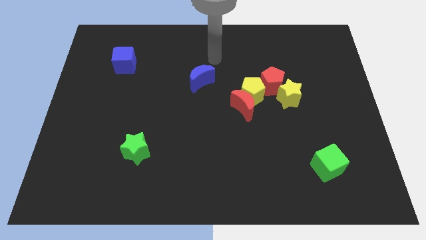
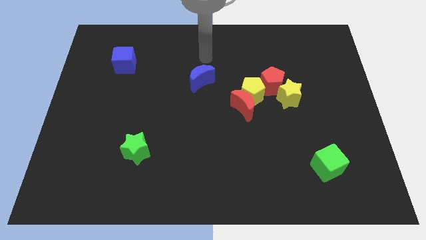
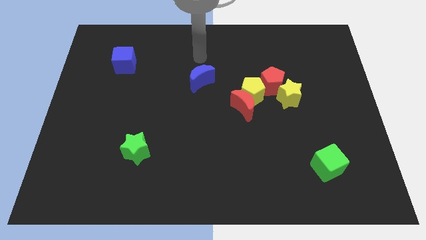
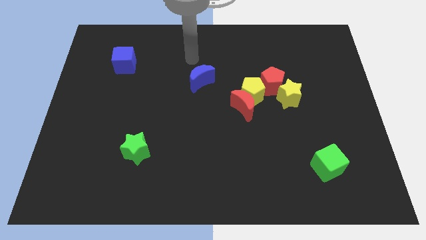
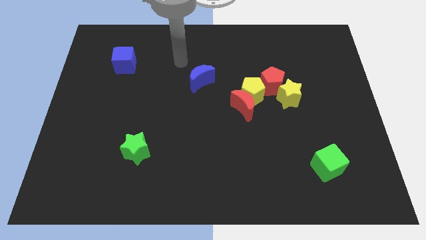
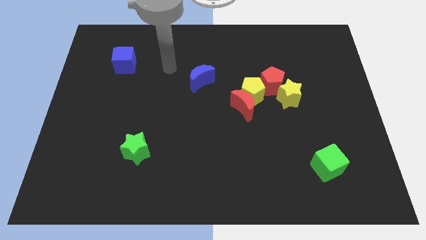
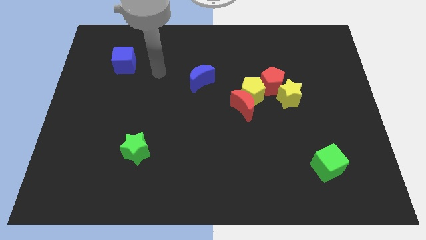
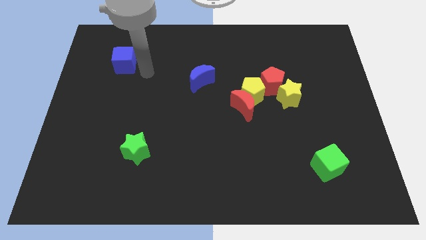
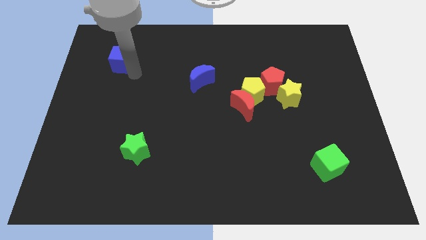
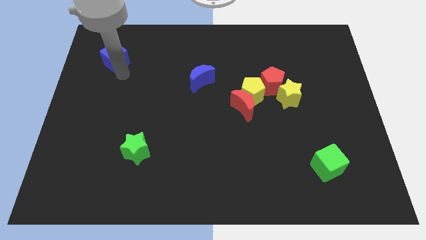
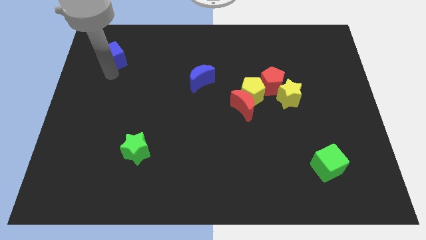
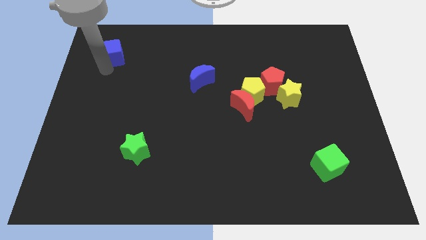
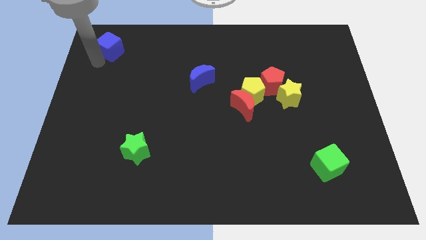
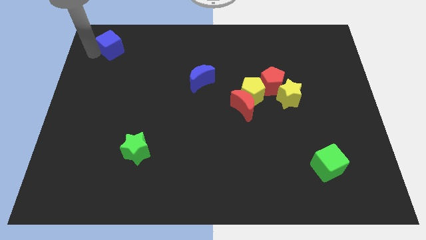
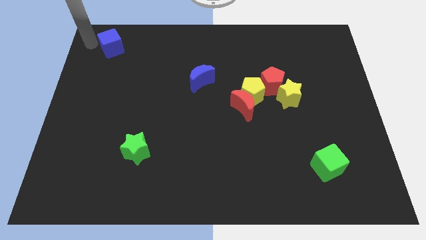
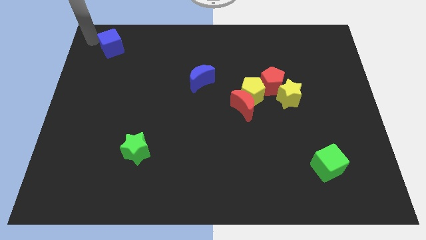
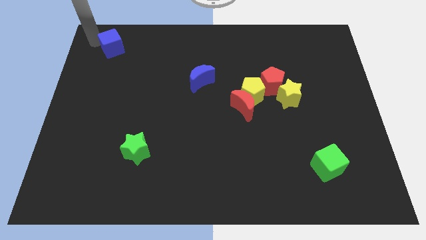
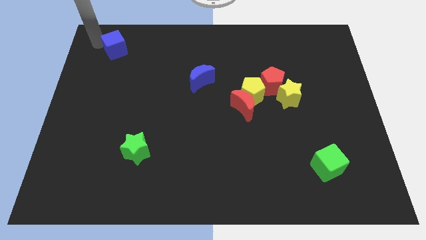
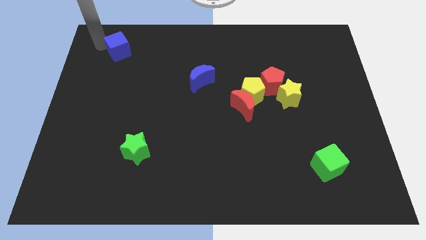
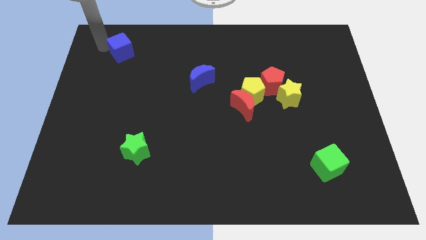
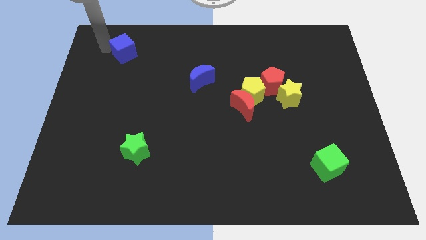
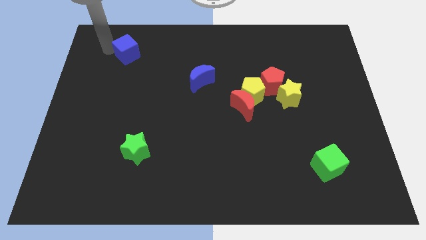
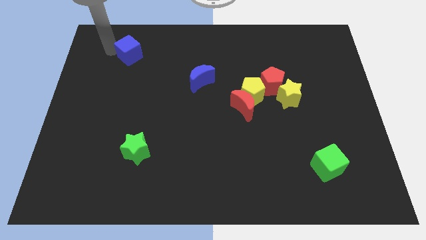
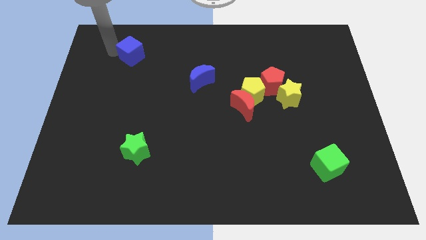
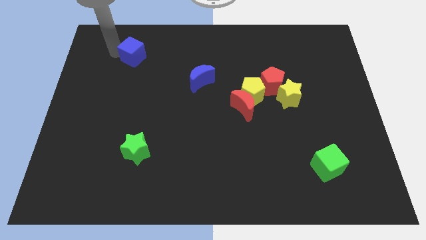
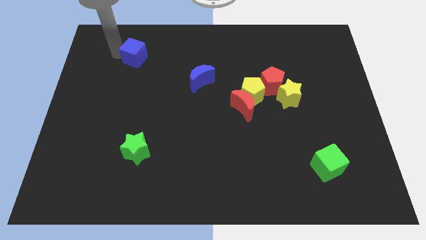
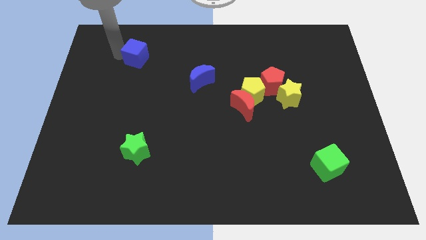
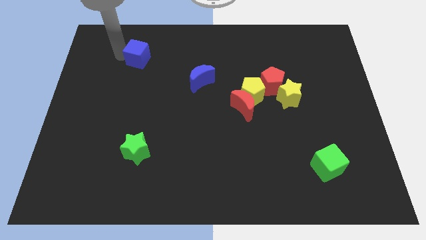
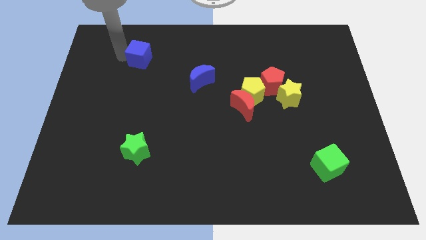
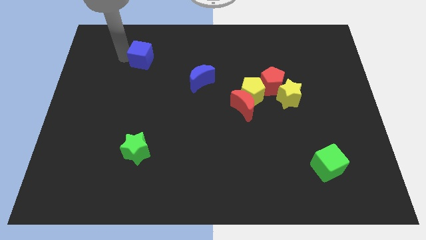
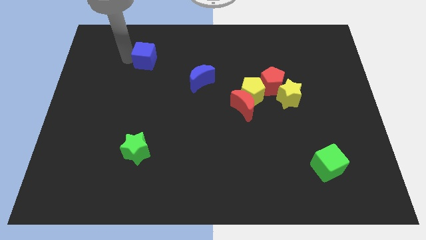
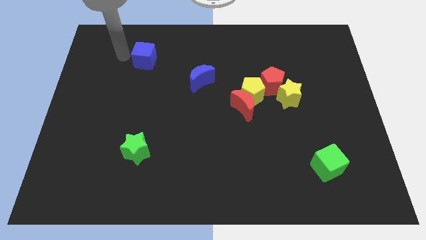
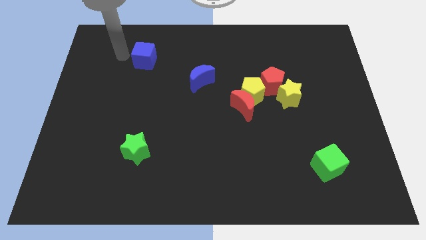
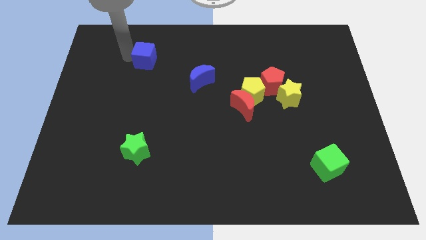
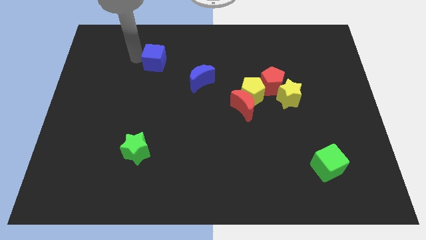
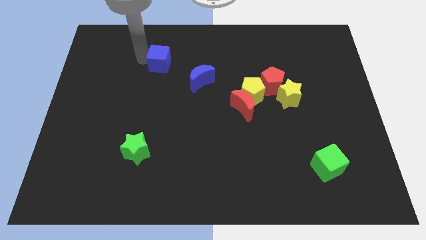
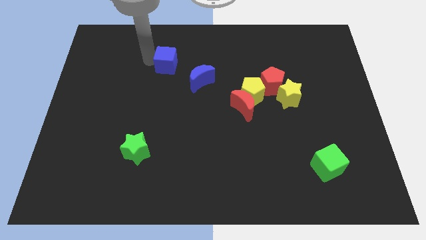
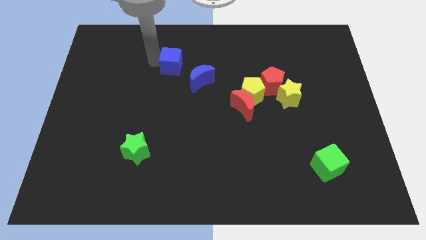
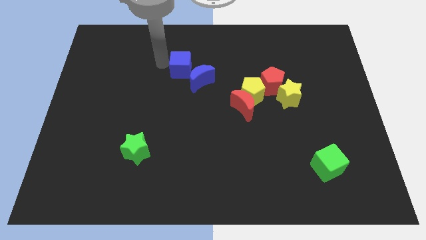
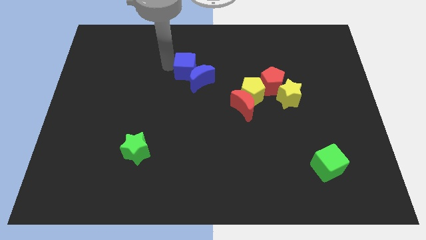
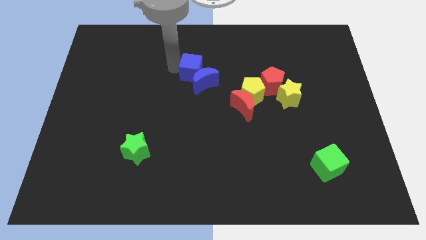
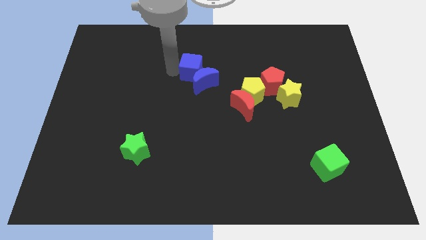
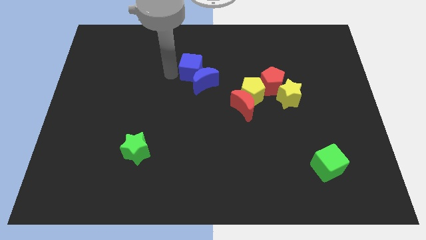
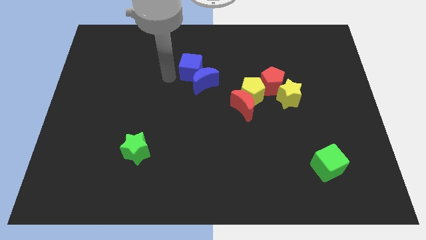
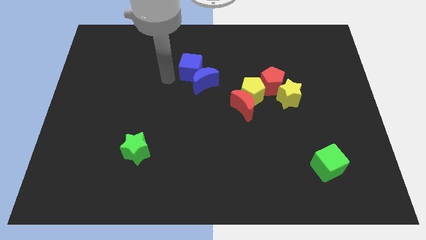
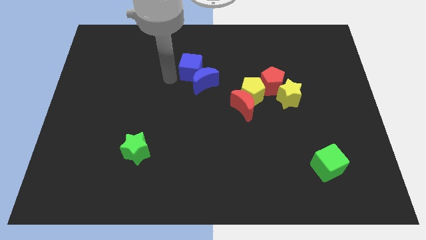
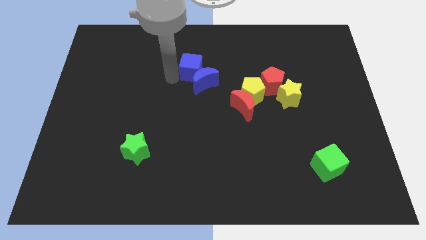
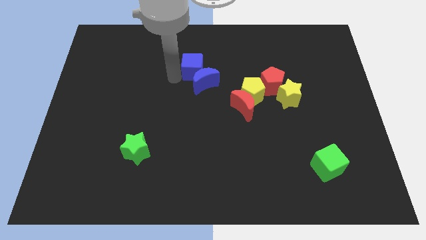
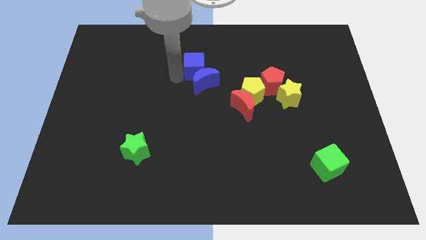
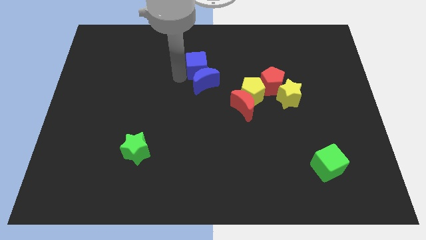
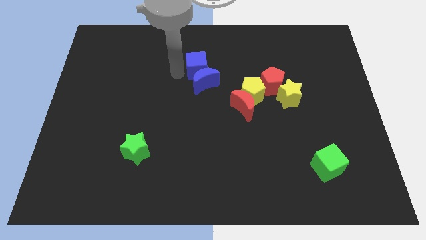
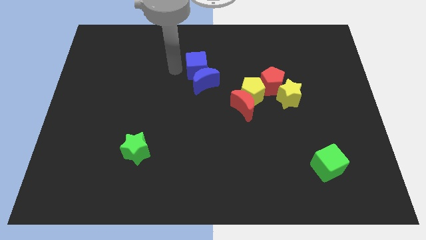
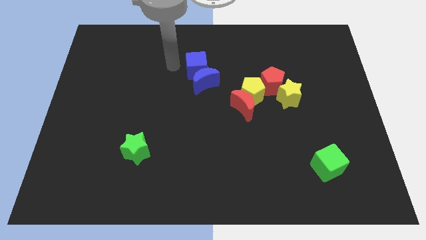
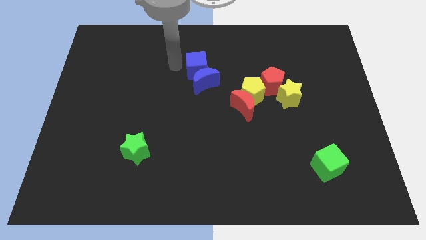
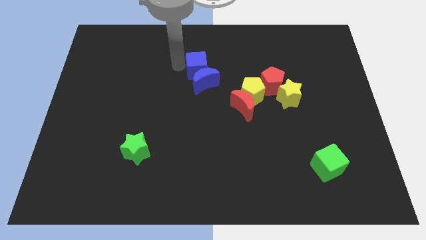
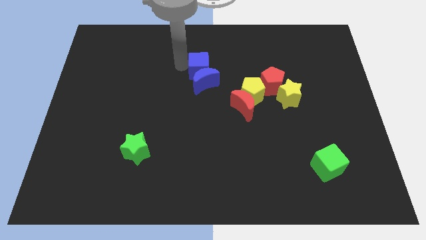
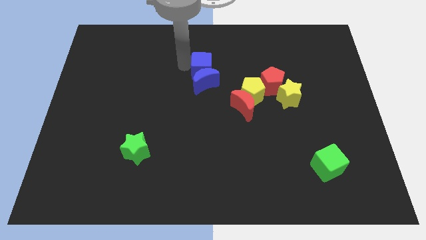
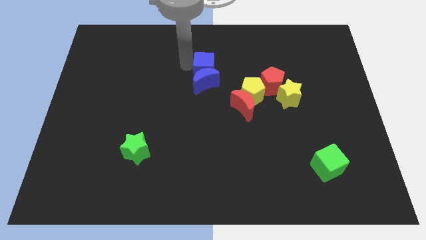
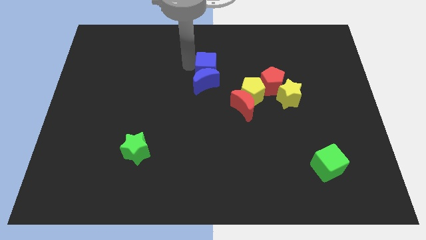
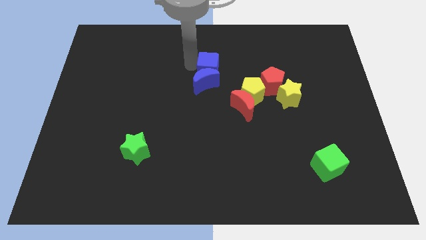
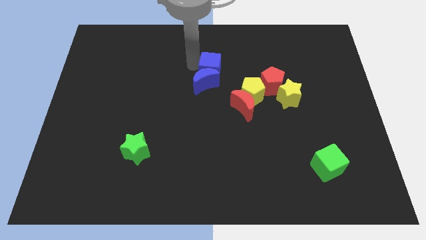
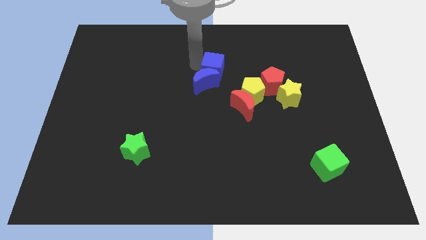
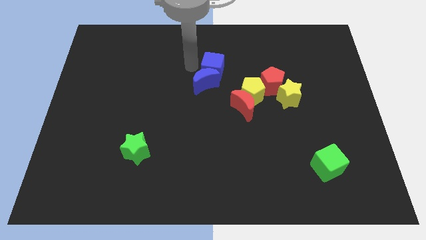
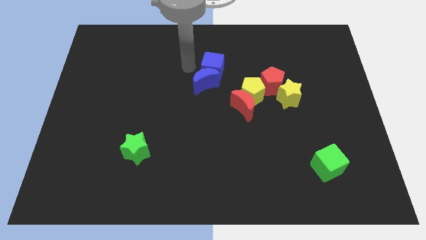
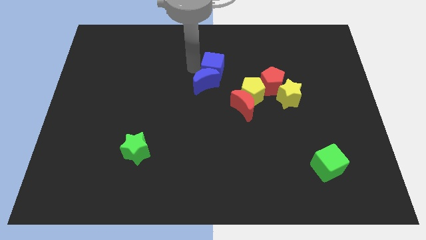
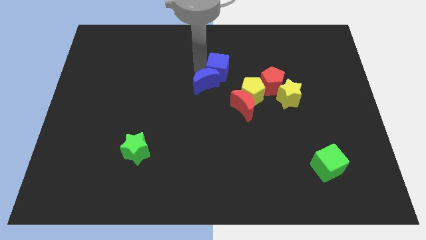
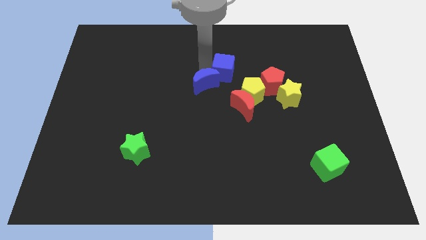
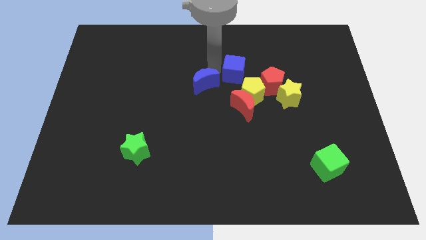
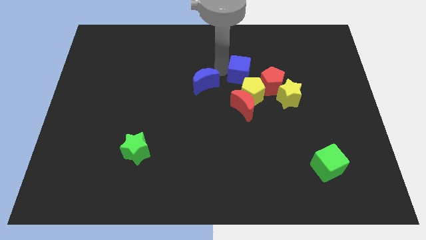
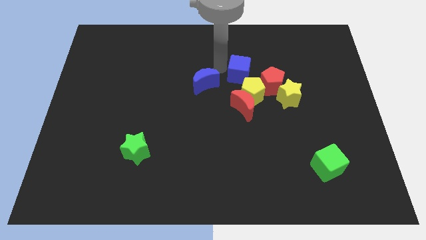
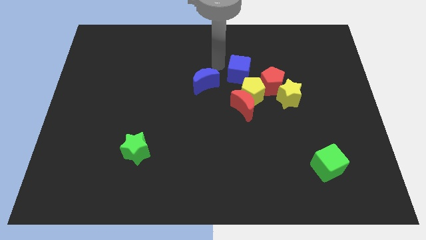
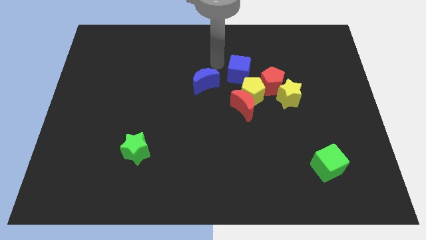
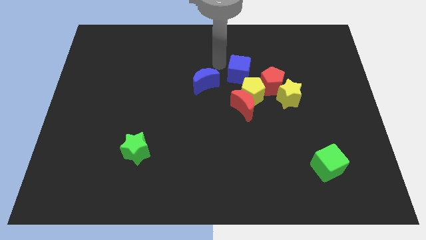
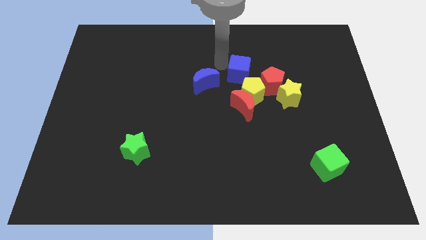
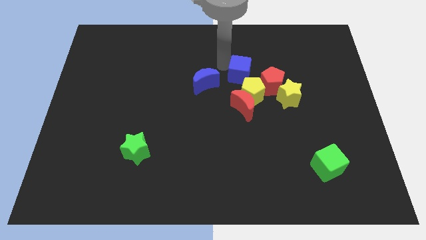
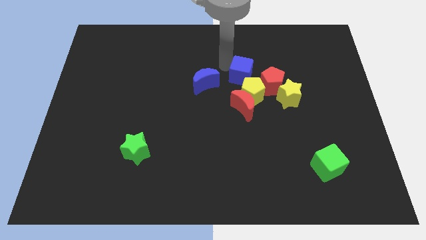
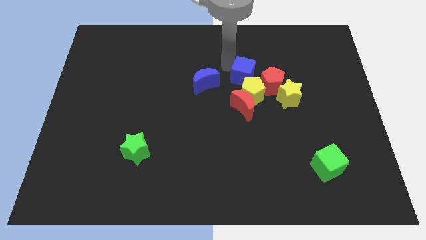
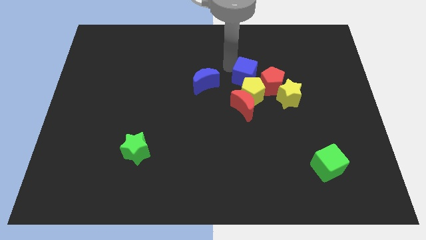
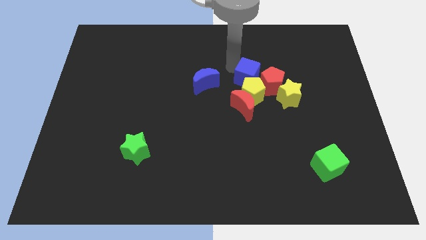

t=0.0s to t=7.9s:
push the blue cube next to the red pentagon
